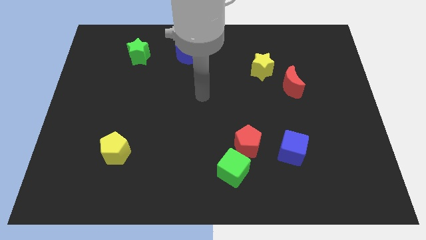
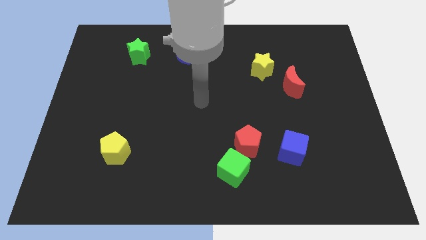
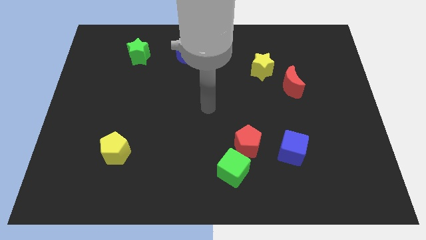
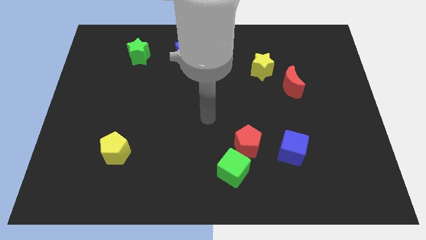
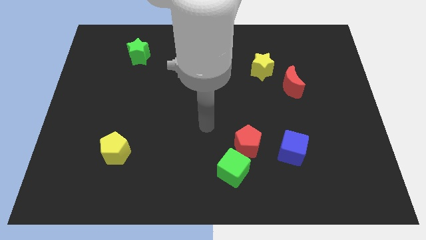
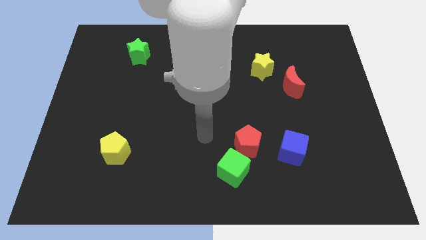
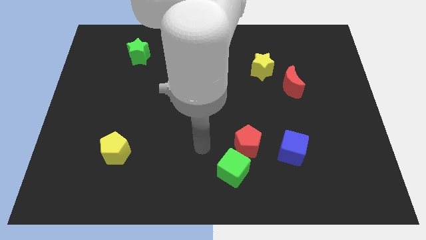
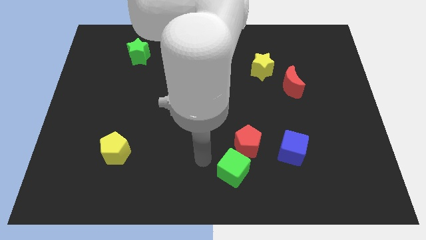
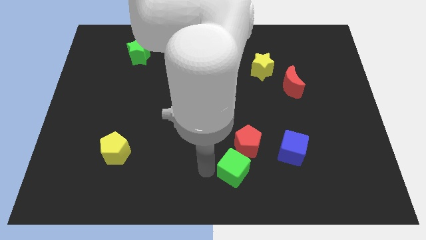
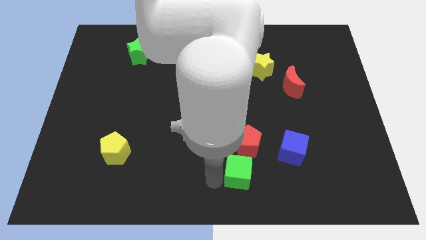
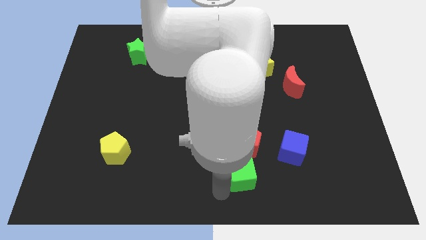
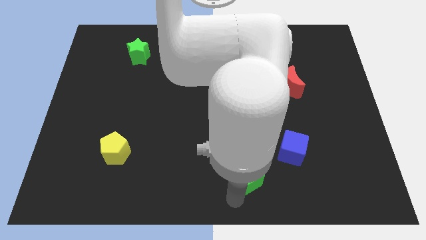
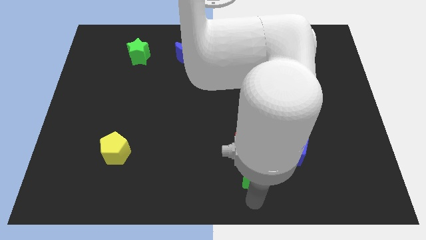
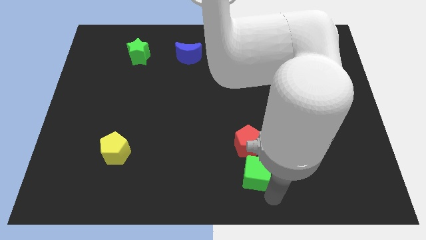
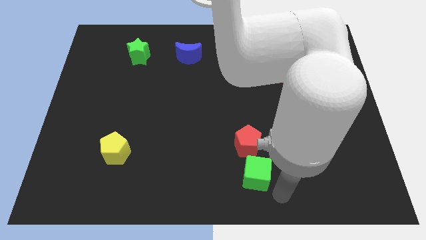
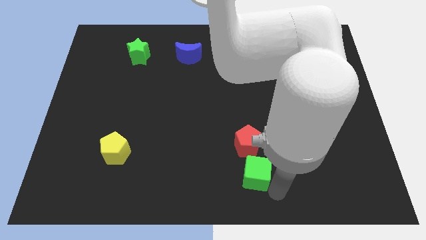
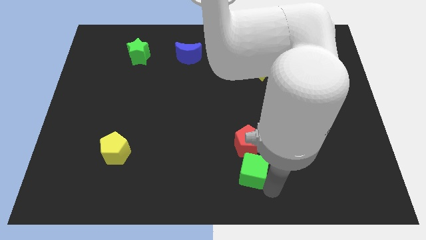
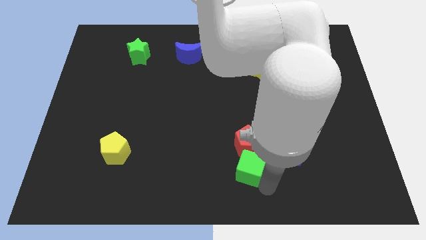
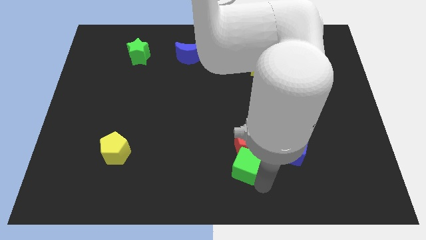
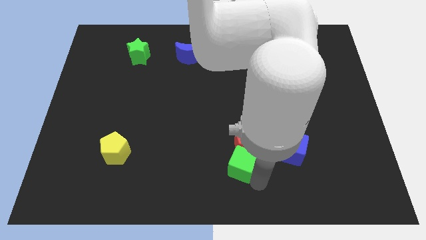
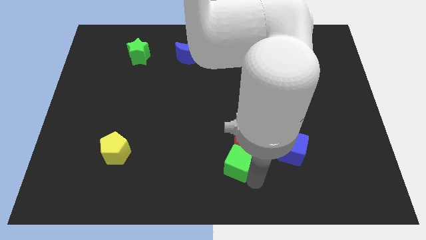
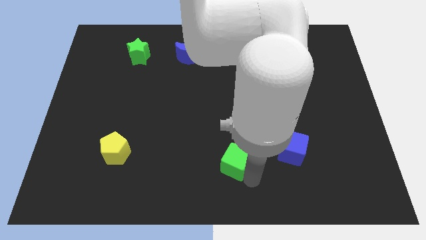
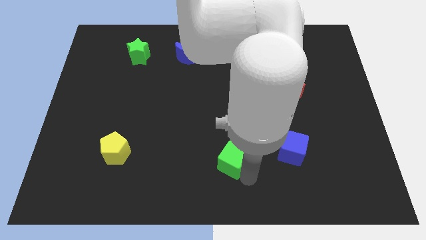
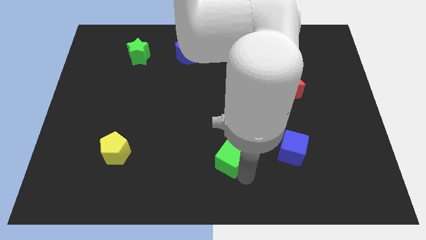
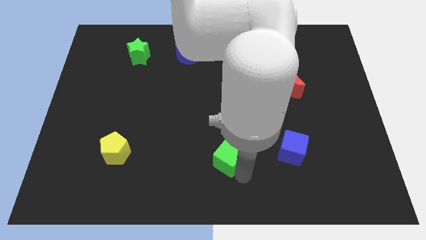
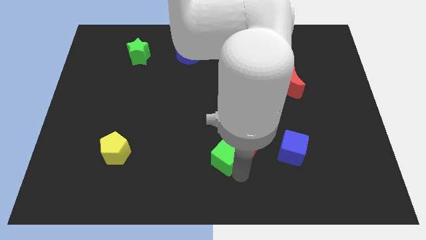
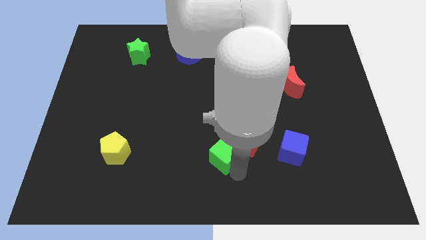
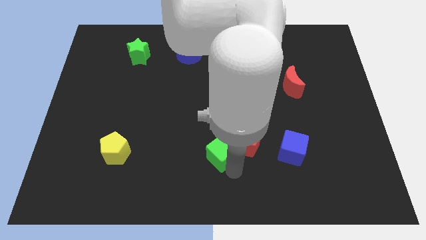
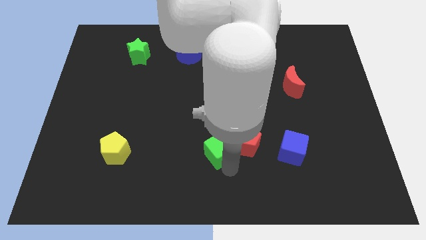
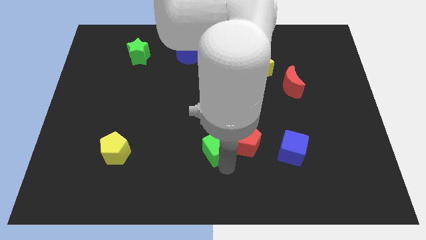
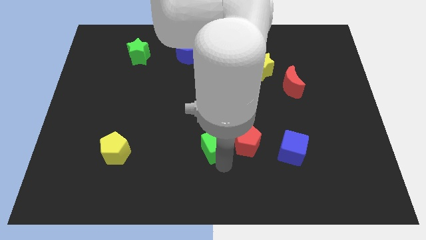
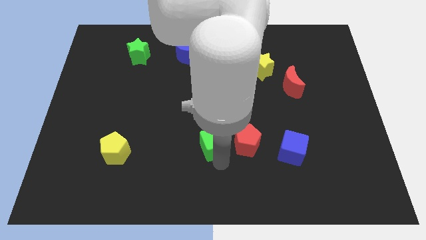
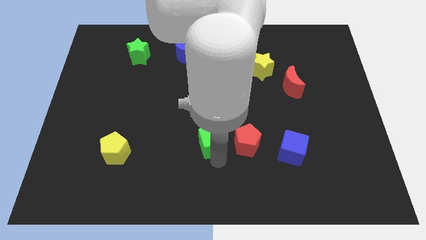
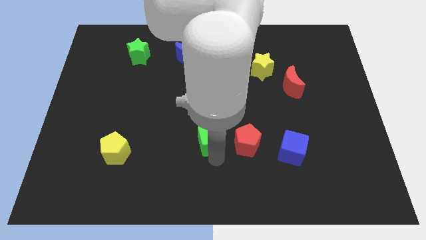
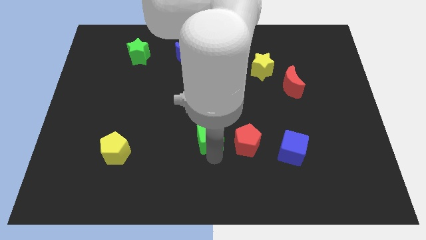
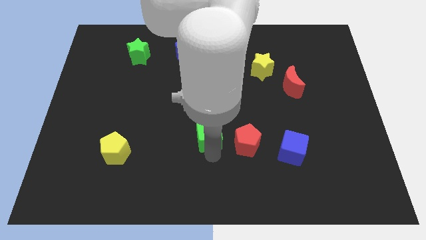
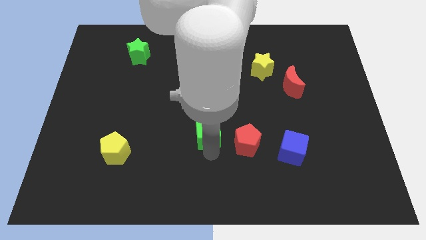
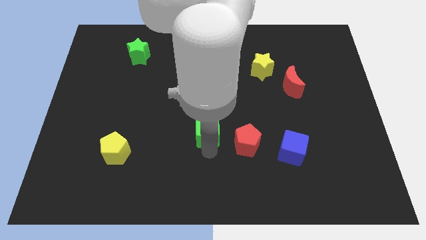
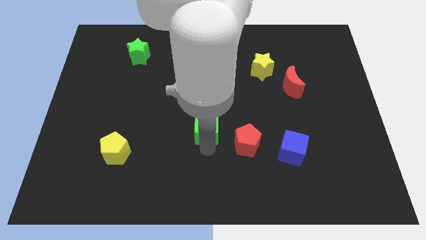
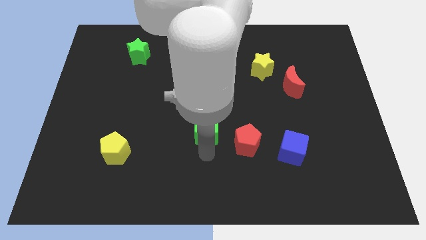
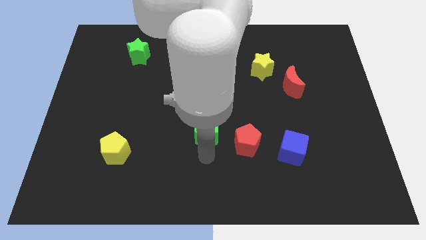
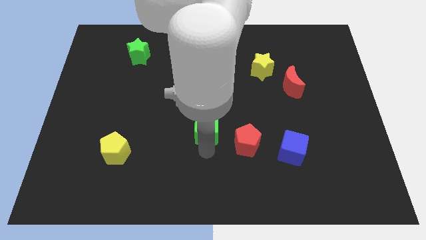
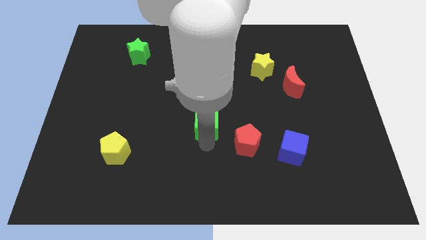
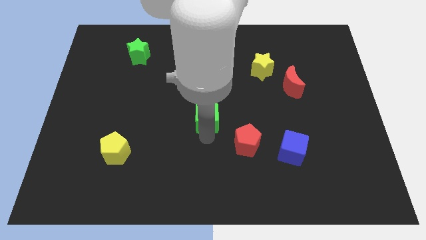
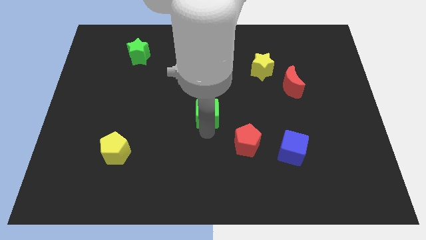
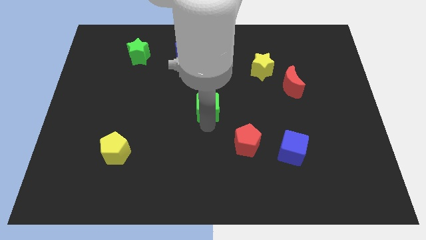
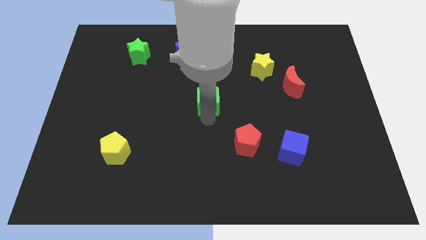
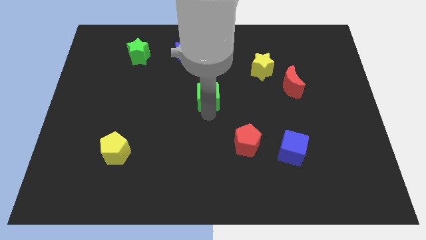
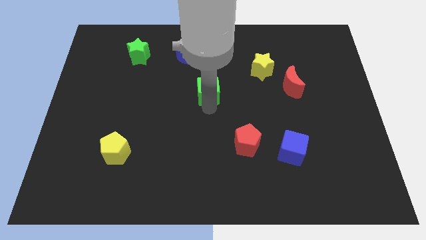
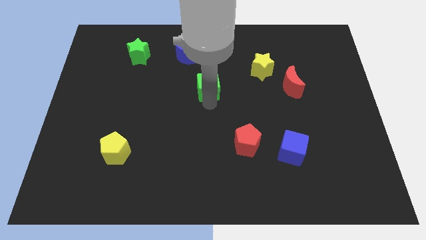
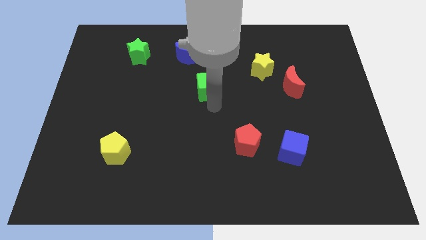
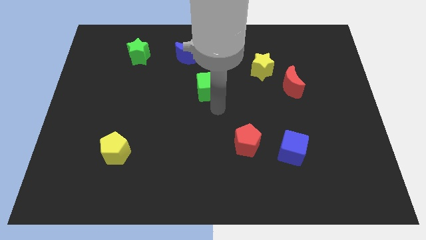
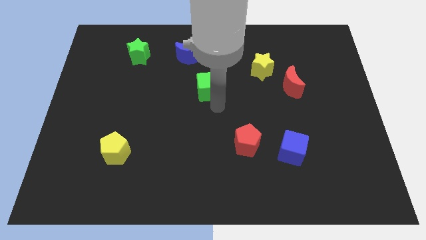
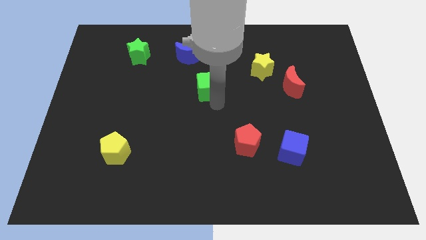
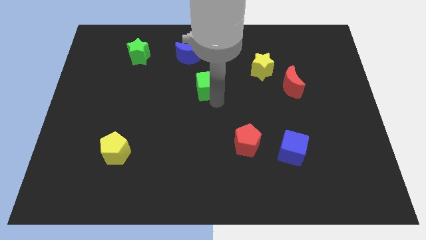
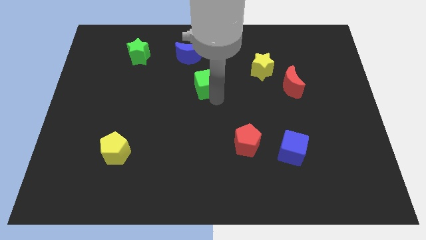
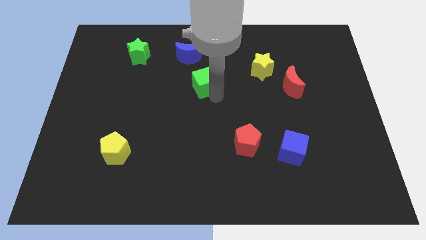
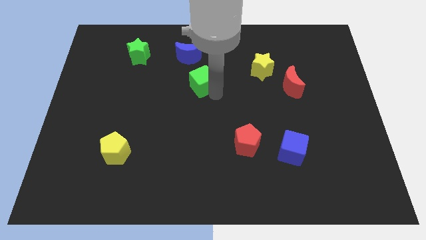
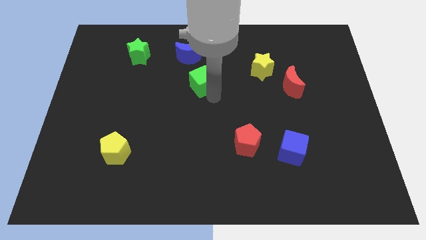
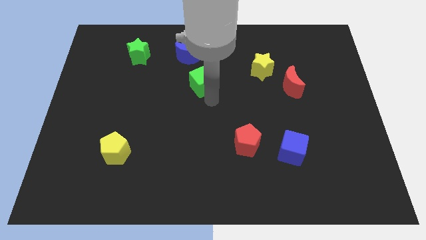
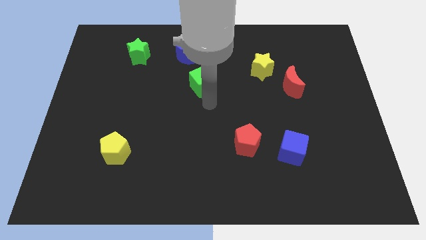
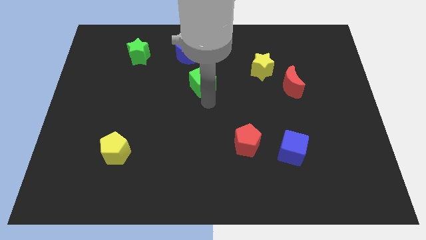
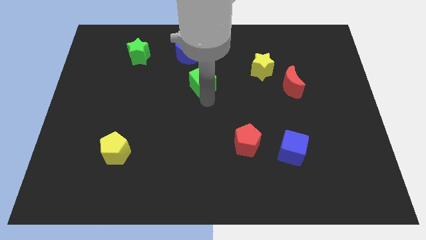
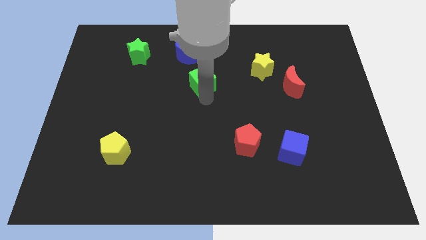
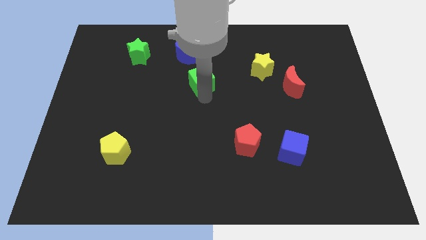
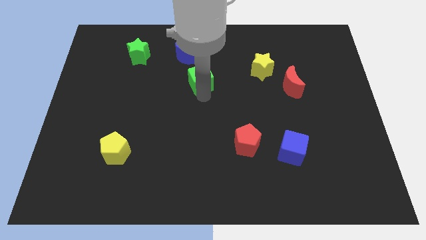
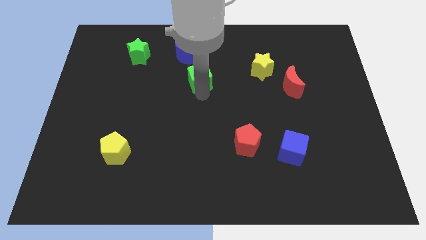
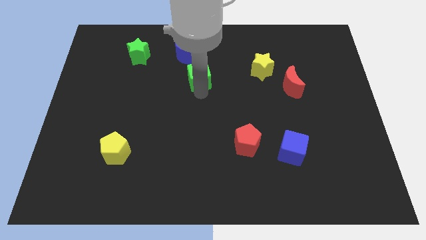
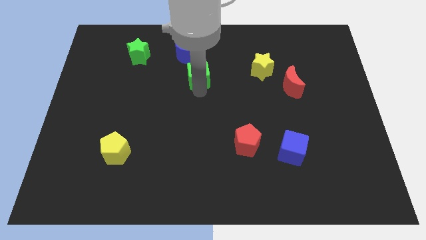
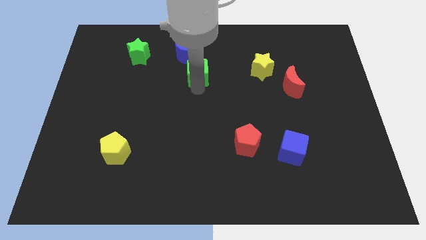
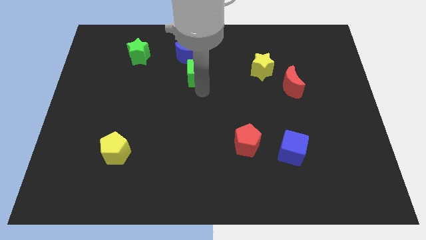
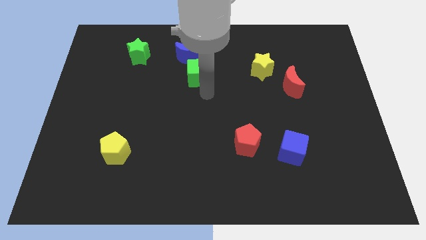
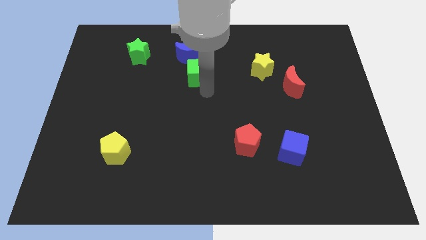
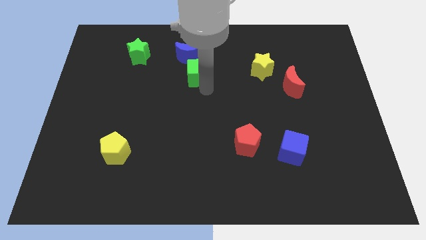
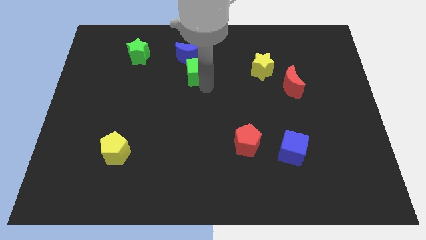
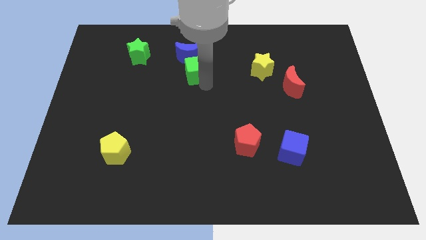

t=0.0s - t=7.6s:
move the green cube close to the blue moon
